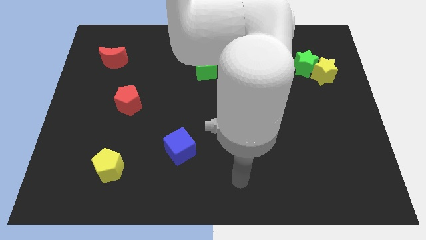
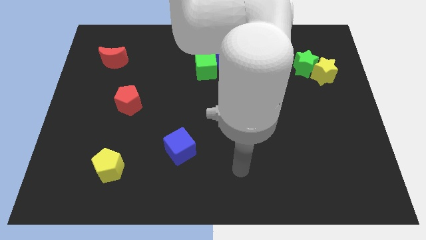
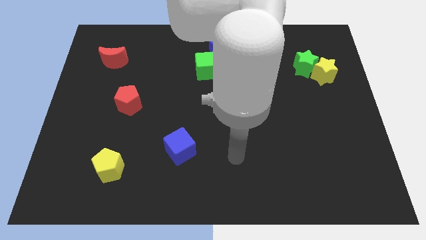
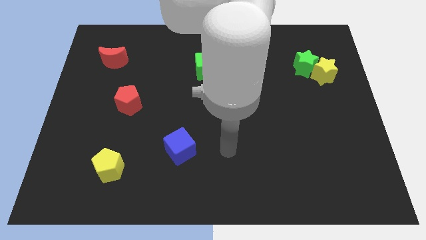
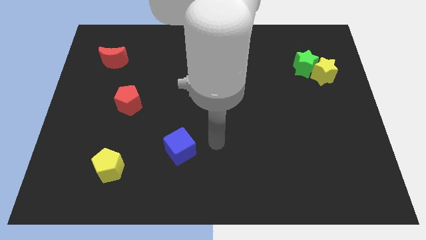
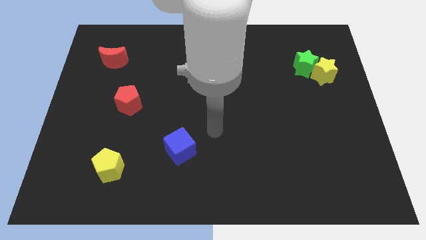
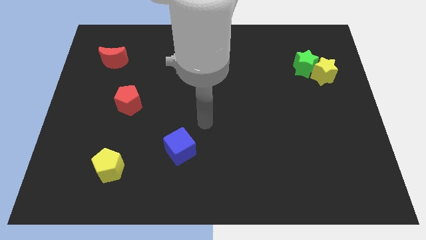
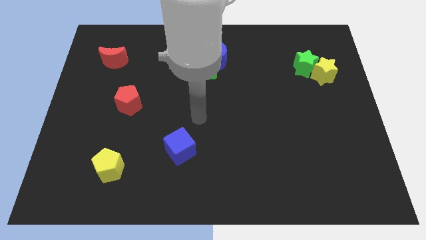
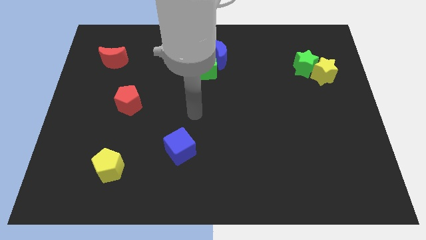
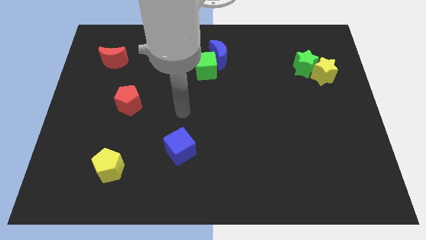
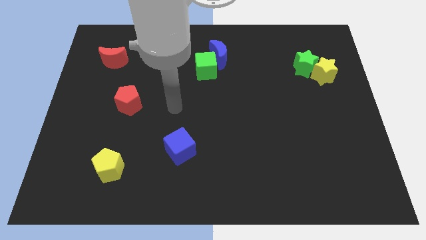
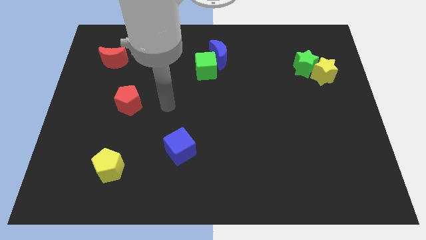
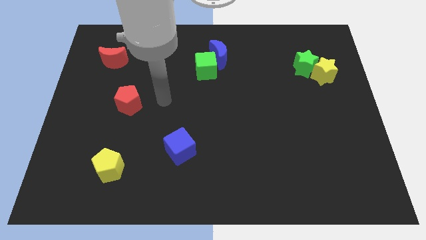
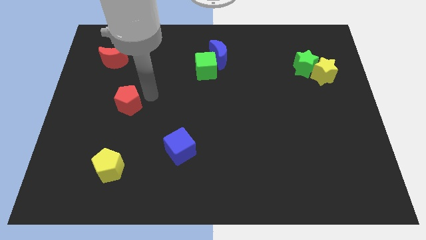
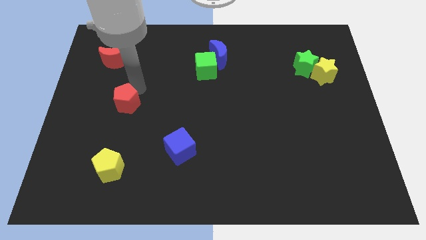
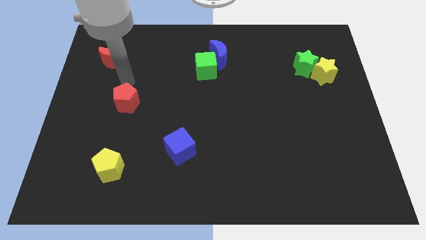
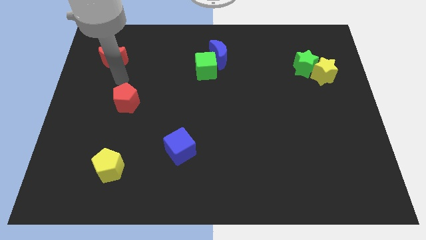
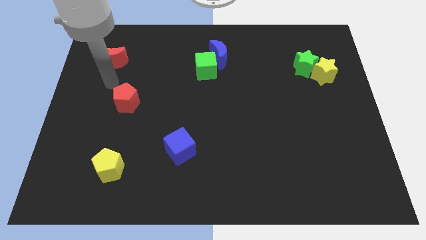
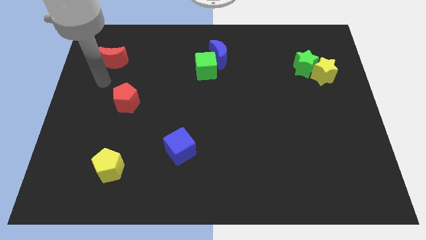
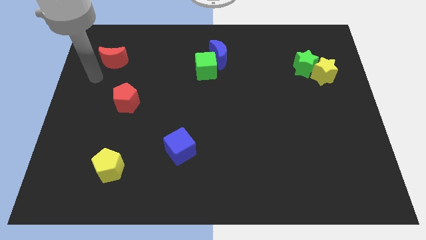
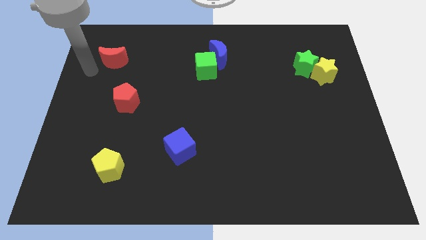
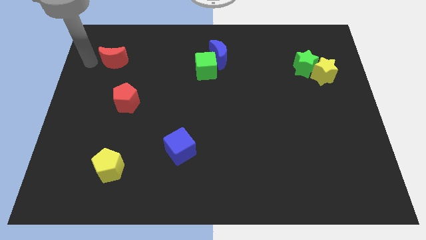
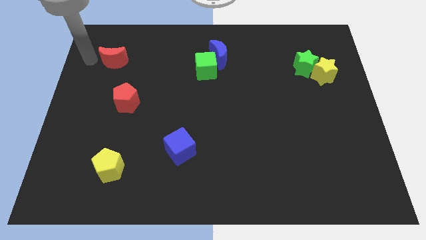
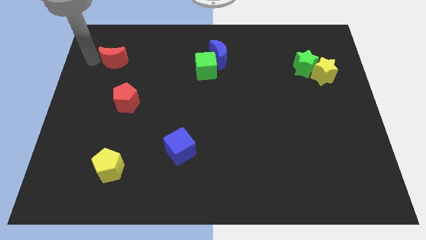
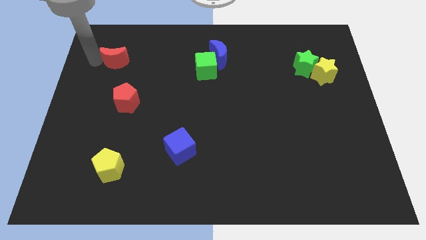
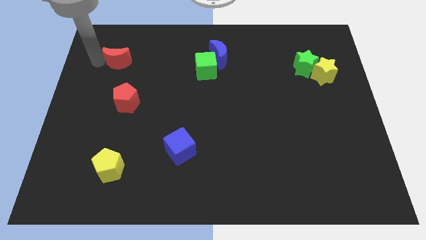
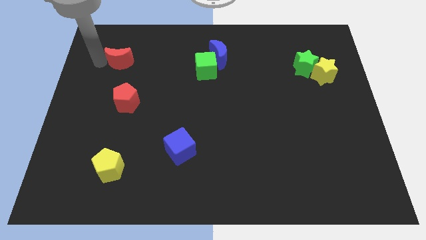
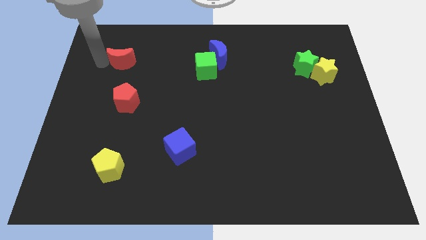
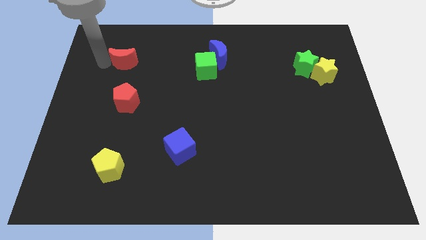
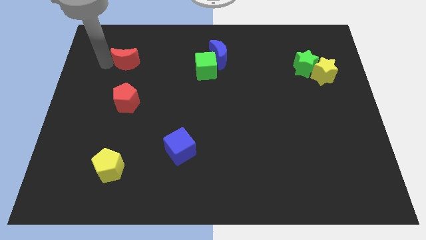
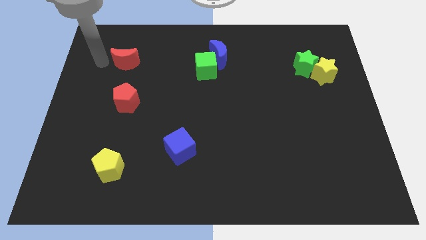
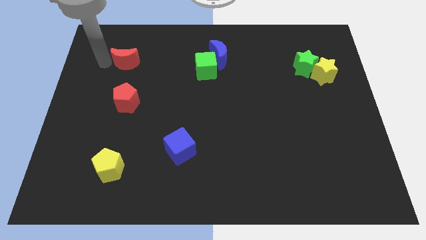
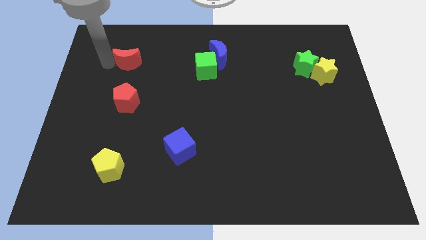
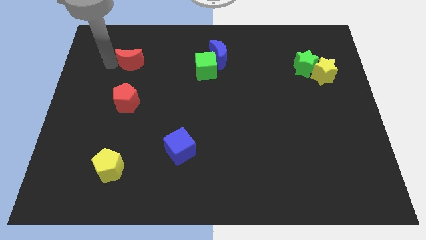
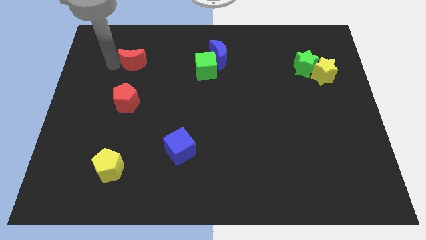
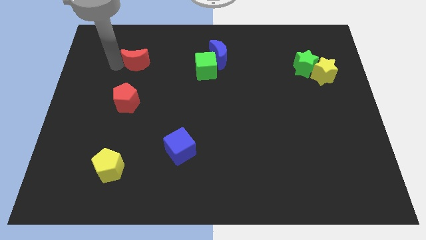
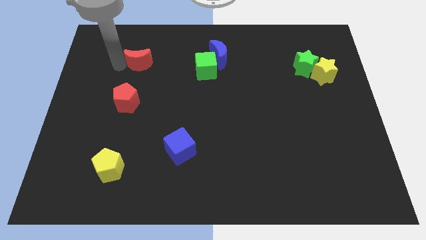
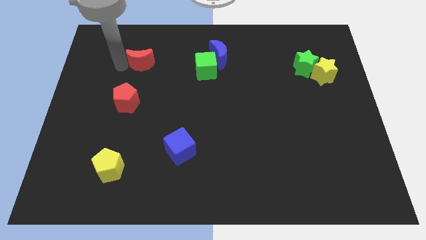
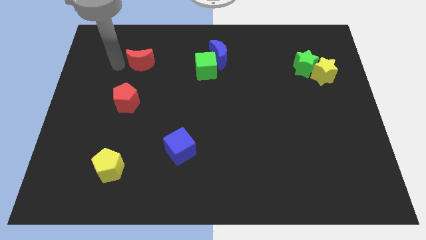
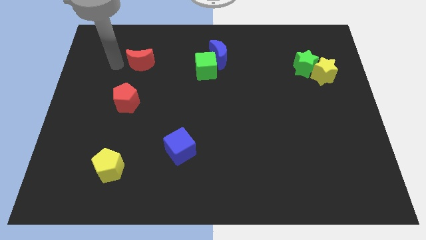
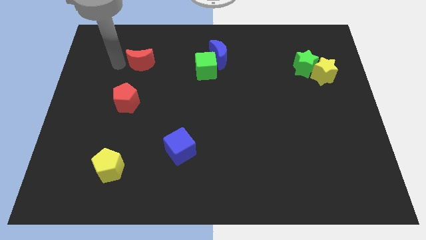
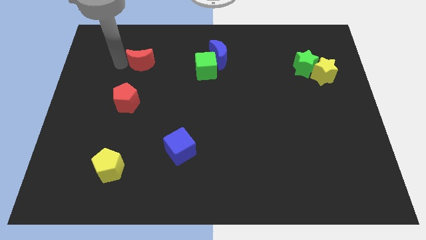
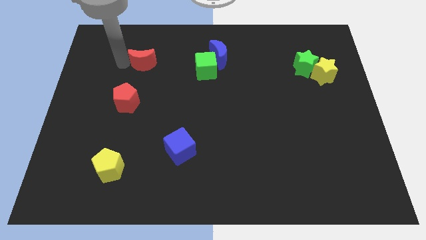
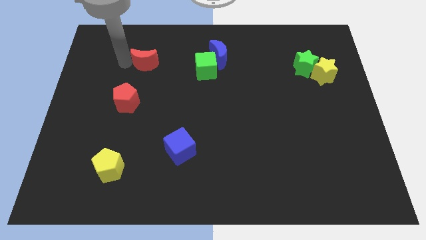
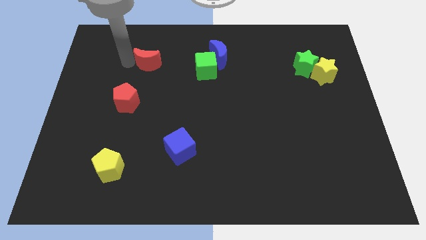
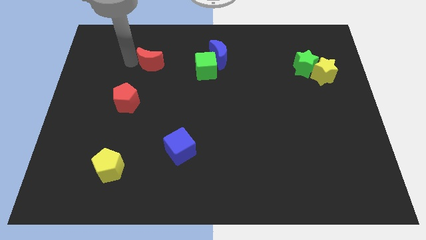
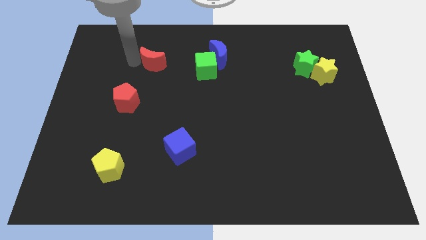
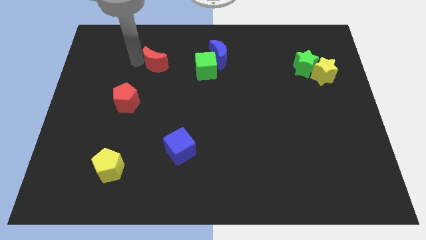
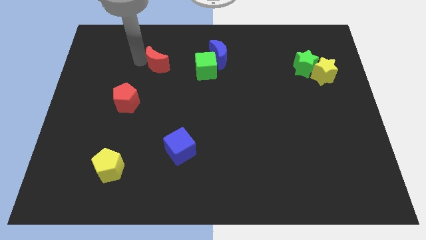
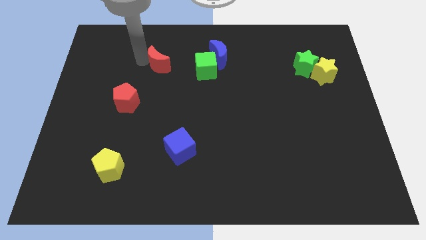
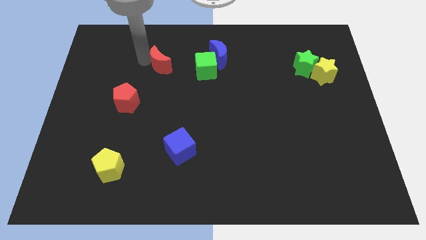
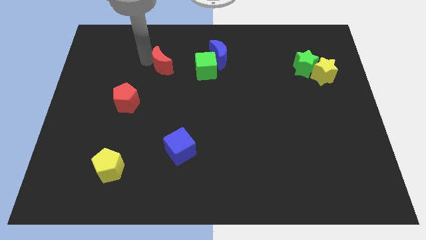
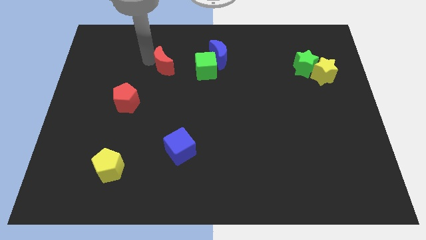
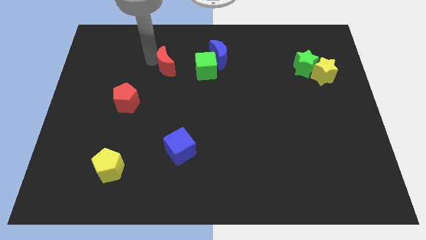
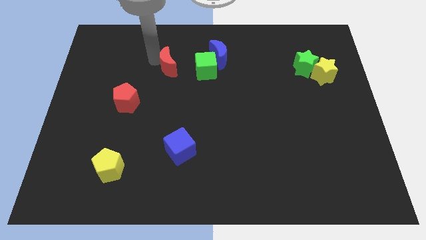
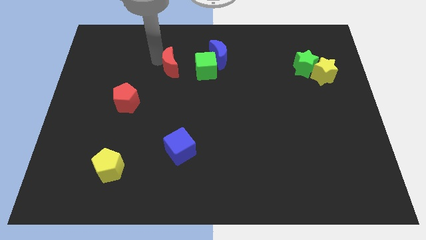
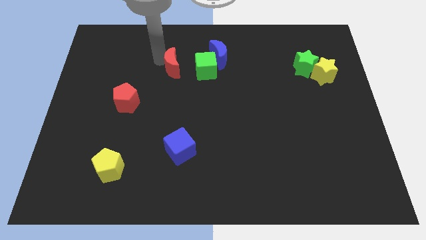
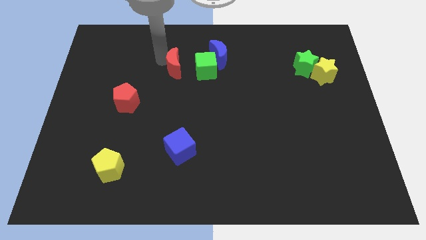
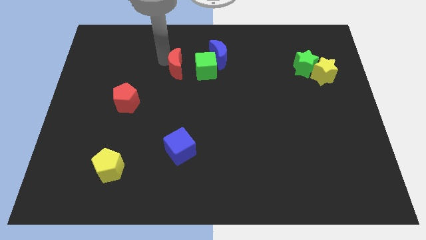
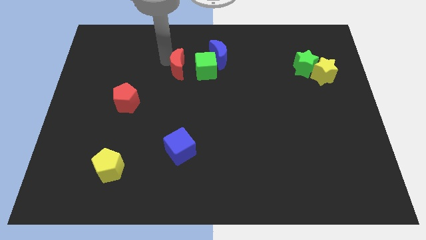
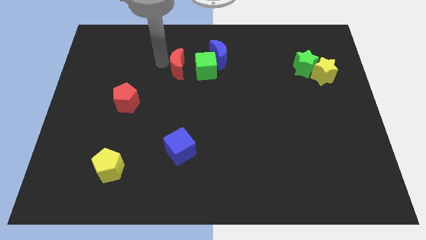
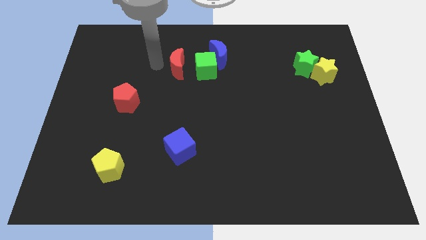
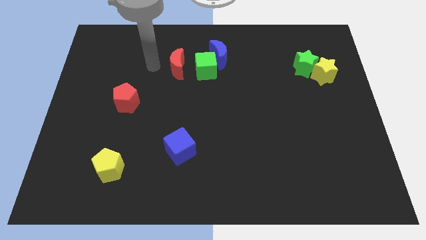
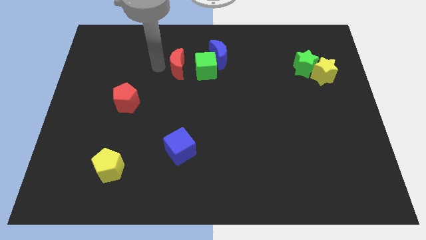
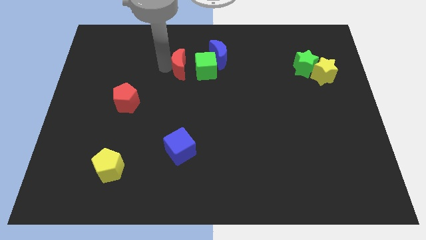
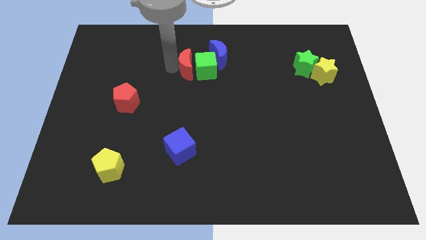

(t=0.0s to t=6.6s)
slide the red moon to the green cube

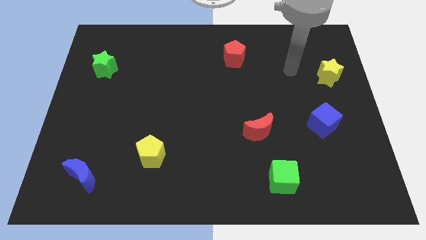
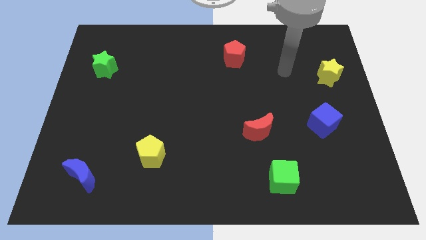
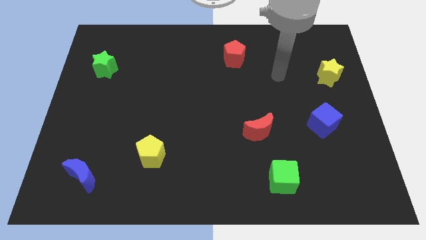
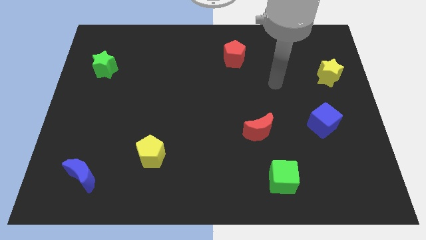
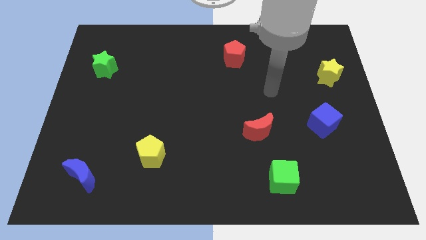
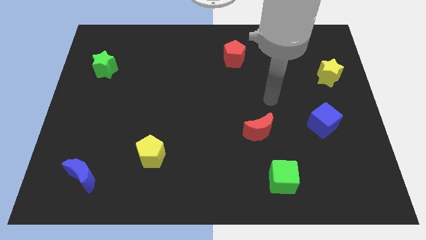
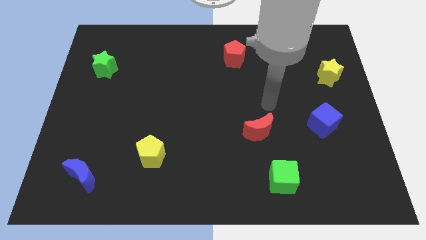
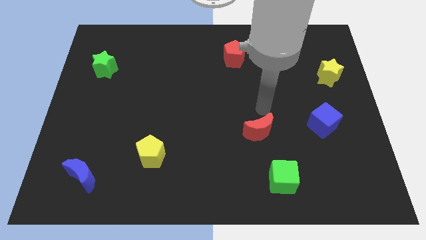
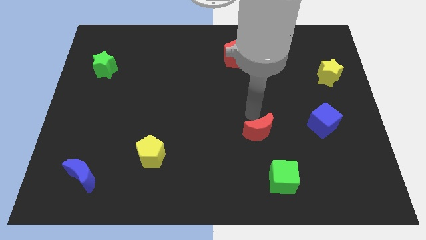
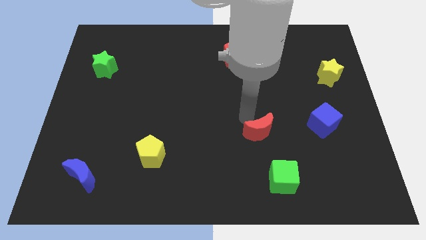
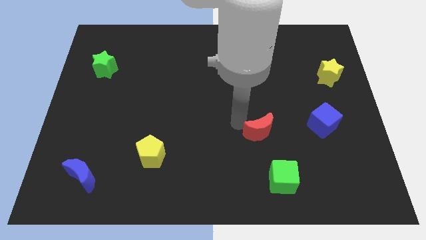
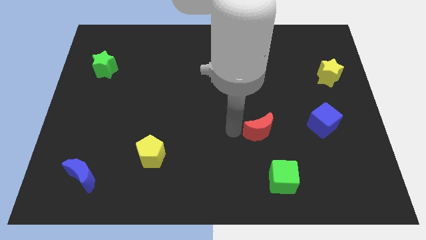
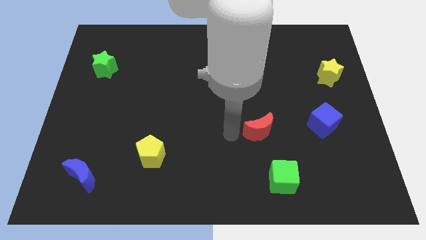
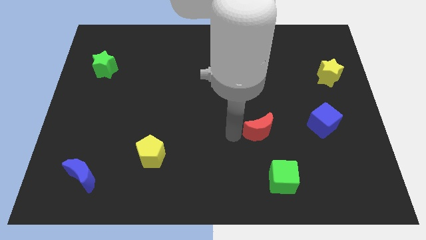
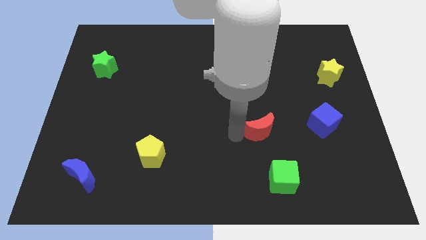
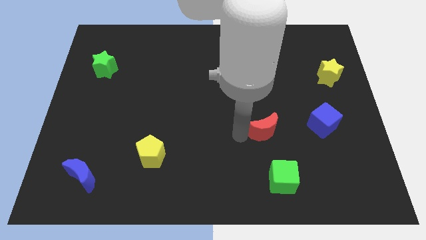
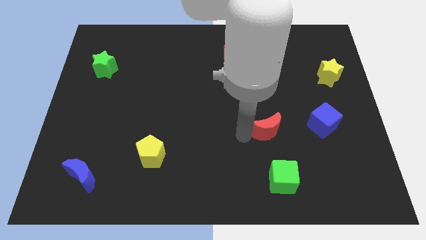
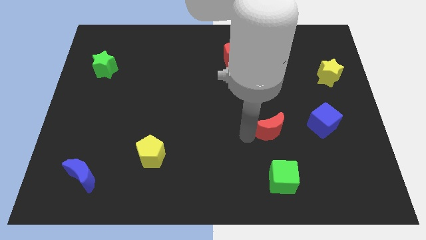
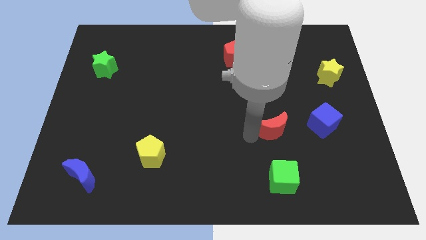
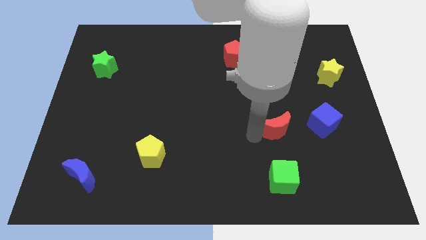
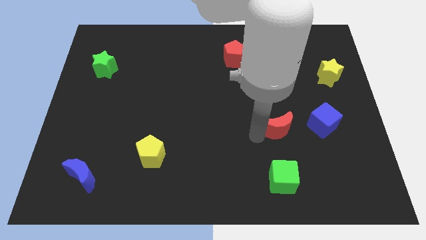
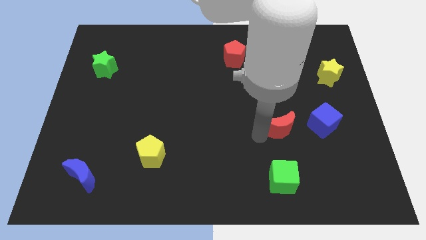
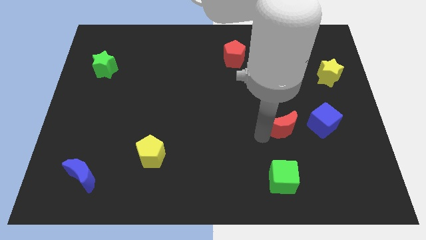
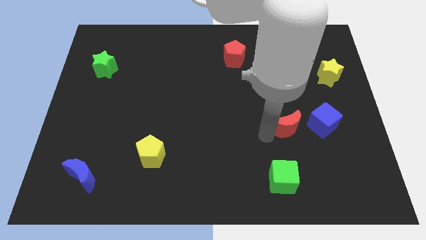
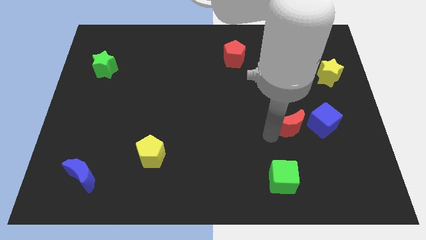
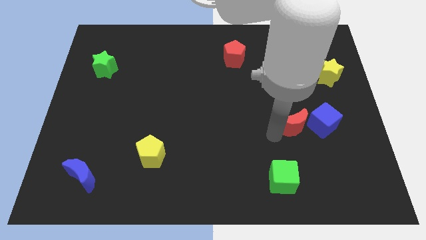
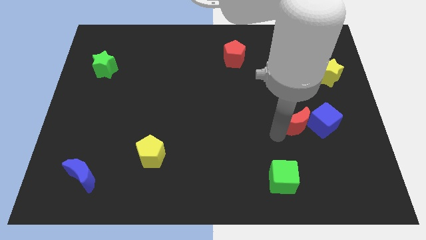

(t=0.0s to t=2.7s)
slide the red moon next to the blue cube
